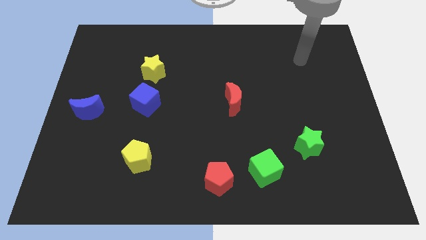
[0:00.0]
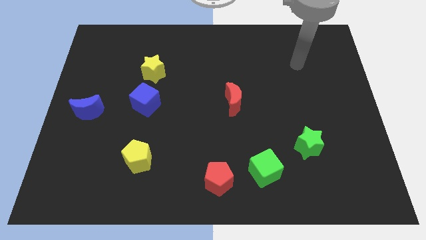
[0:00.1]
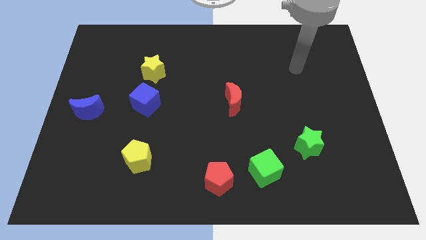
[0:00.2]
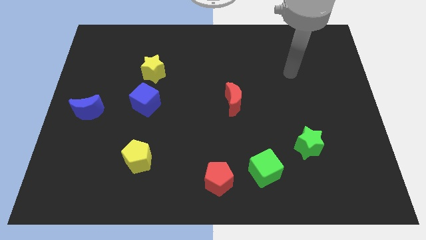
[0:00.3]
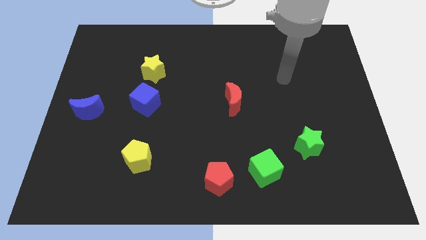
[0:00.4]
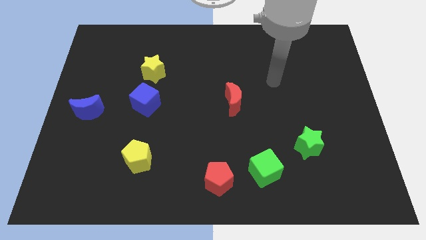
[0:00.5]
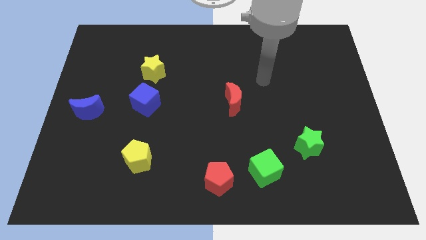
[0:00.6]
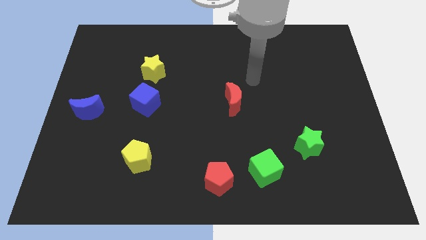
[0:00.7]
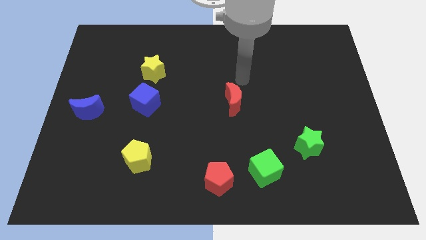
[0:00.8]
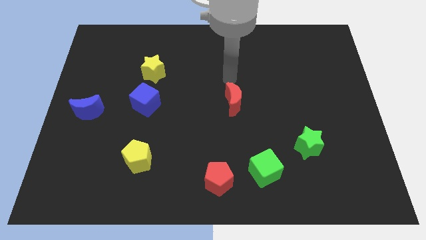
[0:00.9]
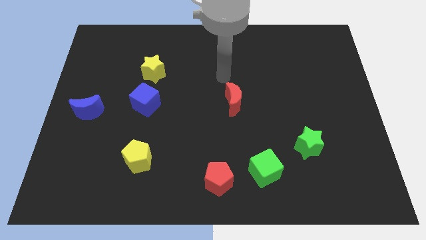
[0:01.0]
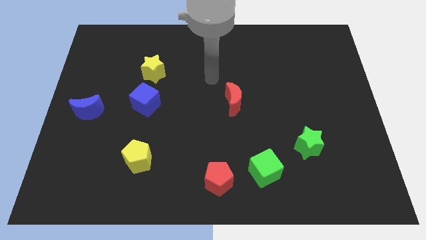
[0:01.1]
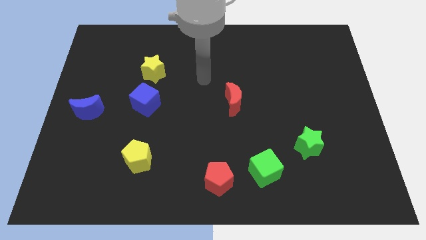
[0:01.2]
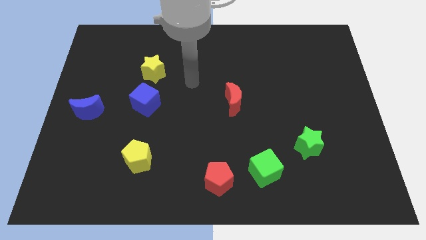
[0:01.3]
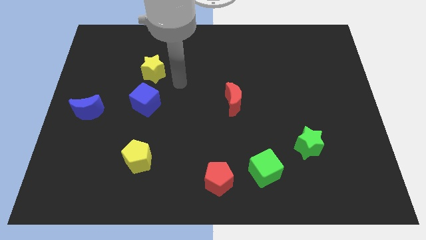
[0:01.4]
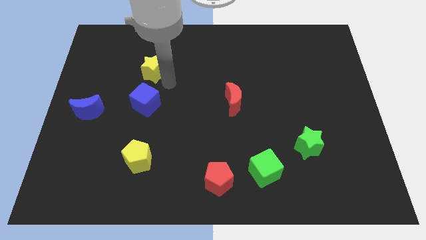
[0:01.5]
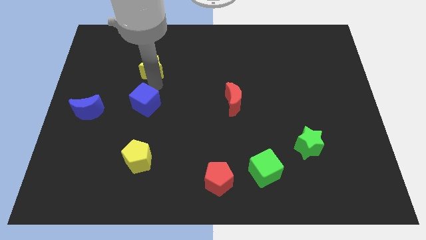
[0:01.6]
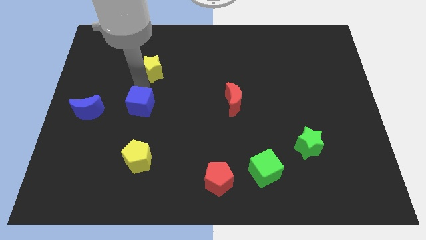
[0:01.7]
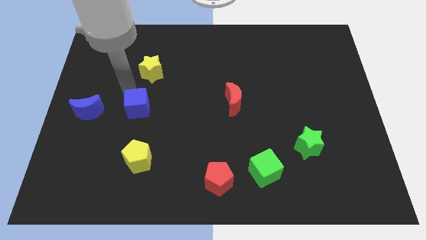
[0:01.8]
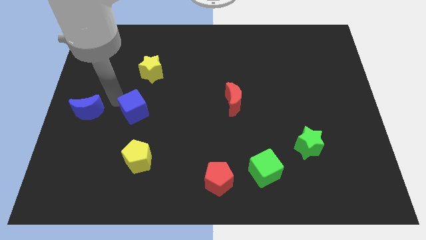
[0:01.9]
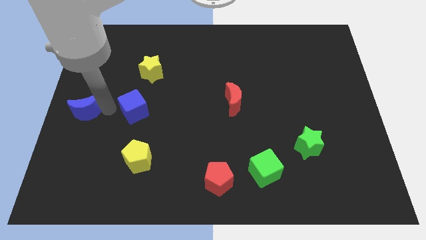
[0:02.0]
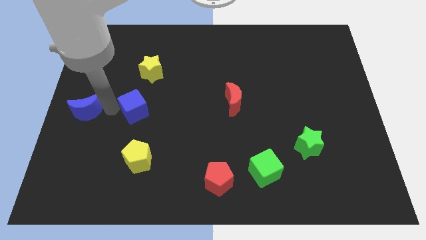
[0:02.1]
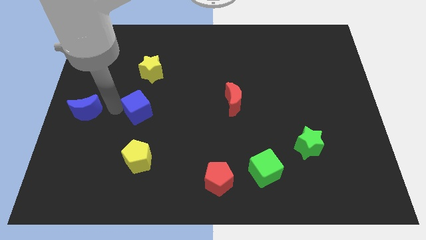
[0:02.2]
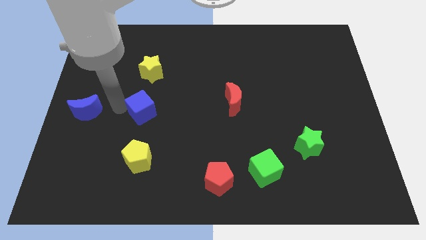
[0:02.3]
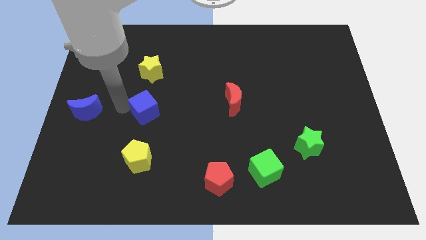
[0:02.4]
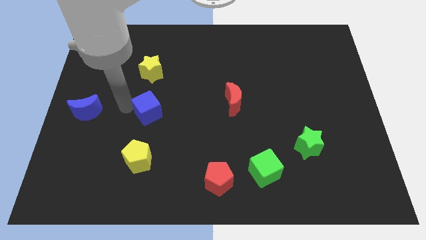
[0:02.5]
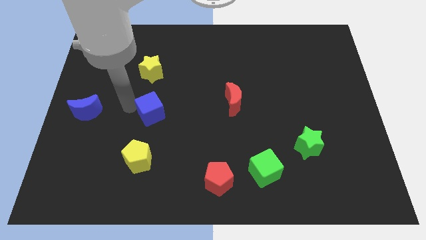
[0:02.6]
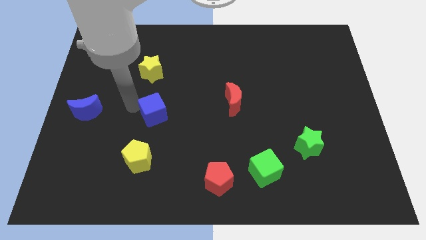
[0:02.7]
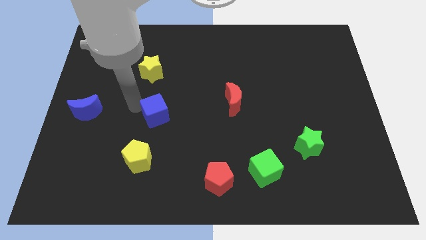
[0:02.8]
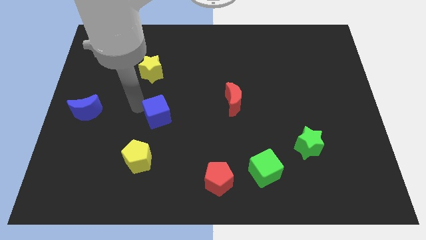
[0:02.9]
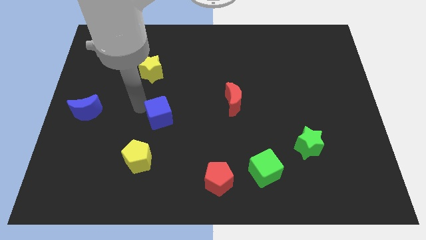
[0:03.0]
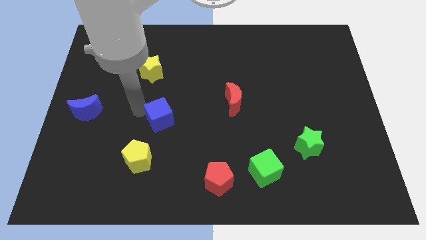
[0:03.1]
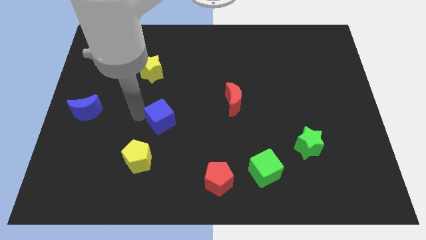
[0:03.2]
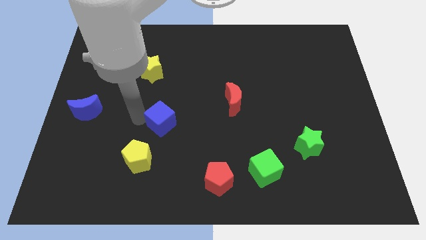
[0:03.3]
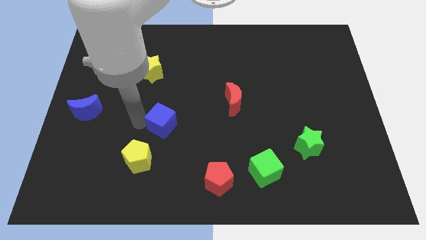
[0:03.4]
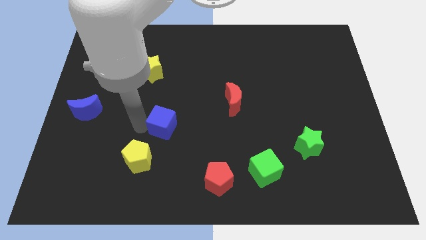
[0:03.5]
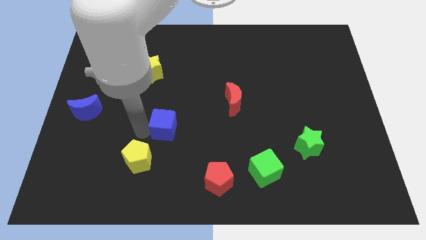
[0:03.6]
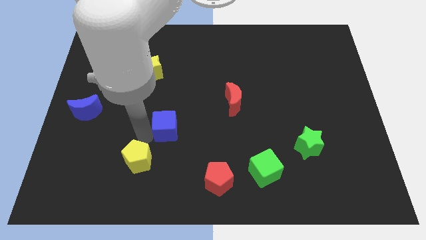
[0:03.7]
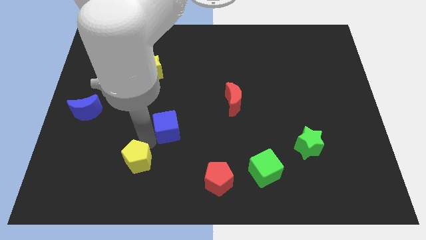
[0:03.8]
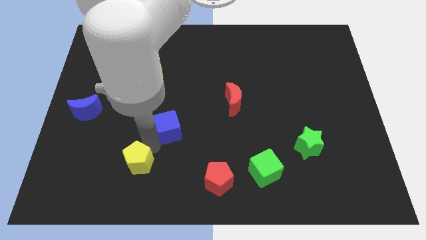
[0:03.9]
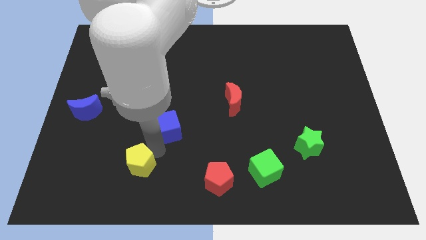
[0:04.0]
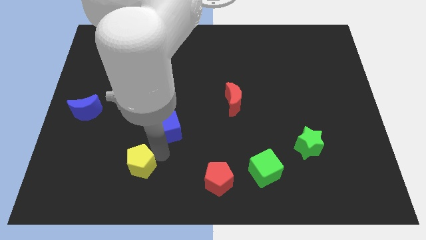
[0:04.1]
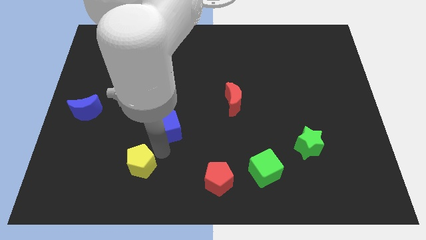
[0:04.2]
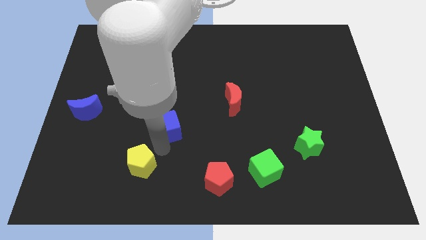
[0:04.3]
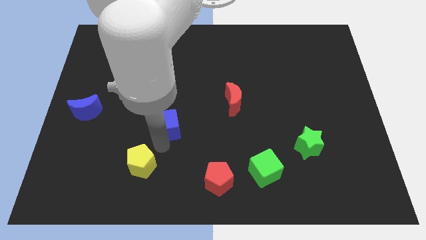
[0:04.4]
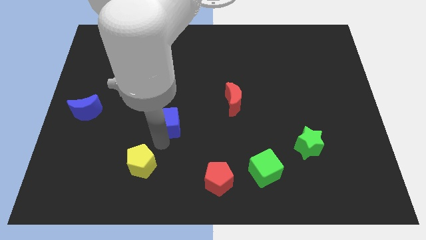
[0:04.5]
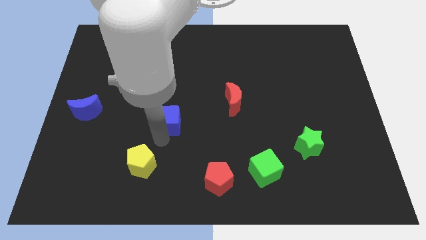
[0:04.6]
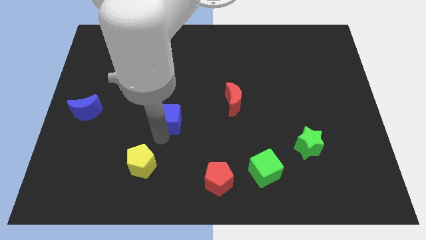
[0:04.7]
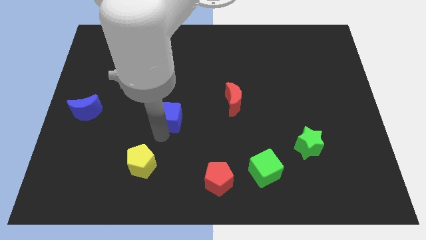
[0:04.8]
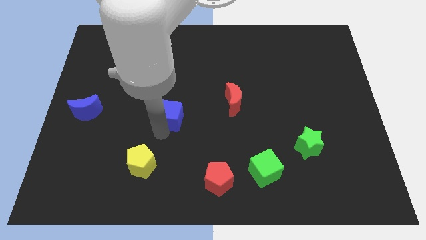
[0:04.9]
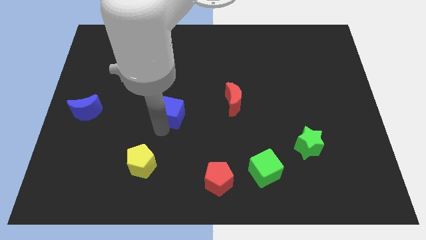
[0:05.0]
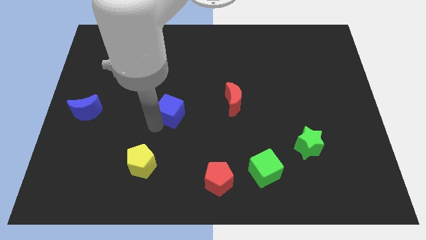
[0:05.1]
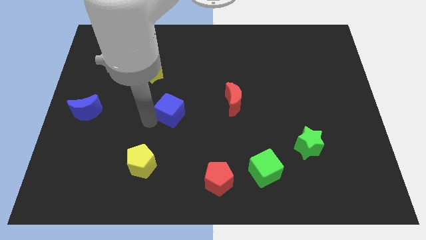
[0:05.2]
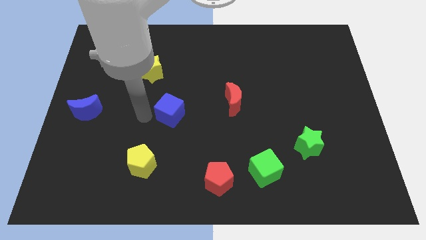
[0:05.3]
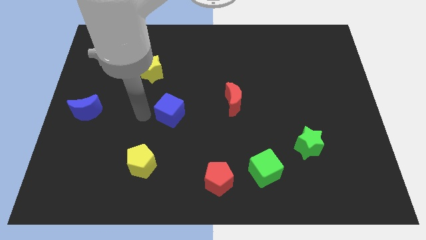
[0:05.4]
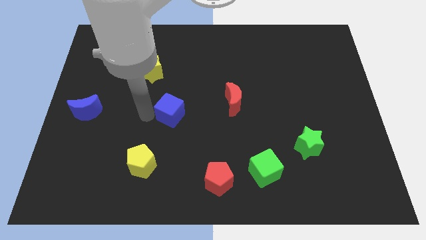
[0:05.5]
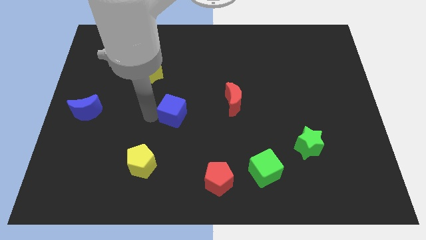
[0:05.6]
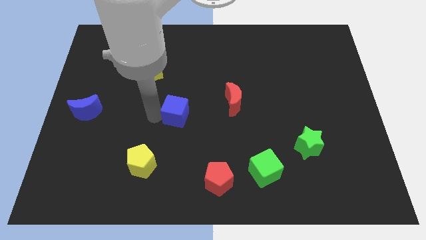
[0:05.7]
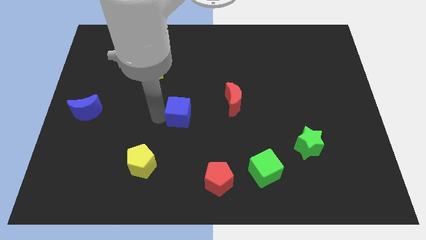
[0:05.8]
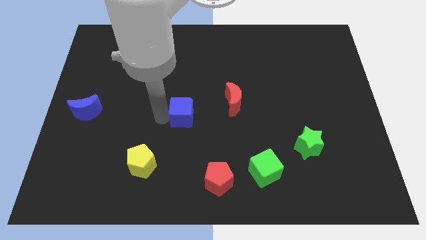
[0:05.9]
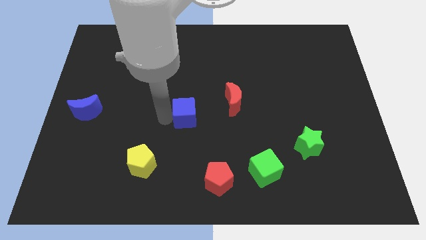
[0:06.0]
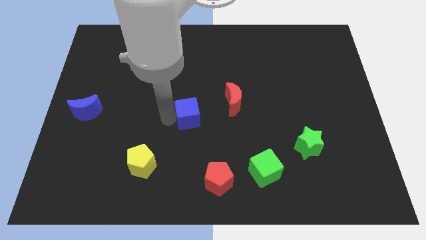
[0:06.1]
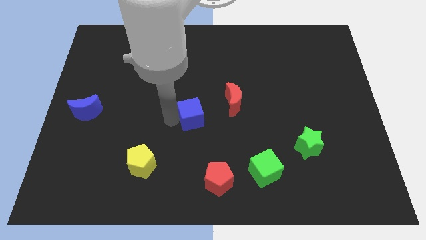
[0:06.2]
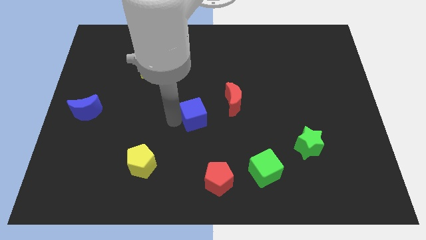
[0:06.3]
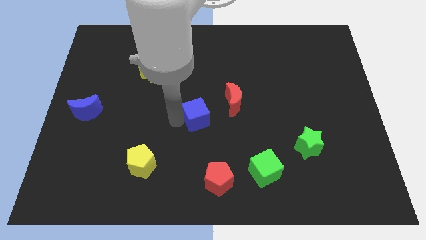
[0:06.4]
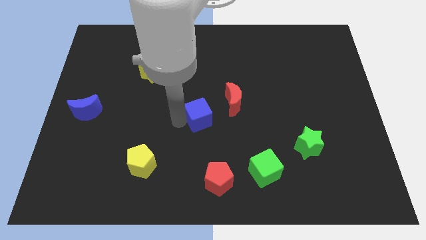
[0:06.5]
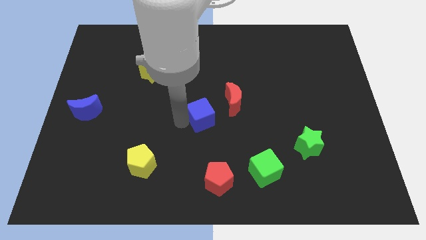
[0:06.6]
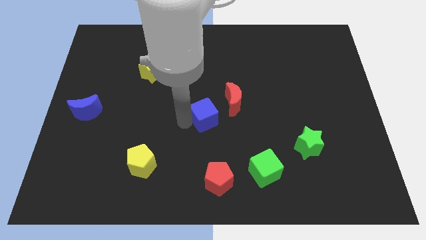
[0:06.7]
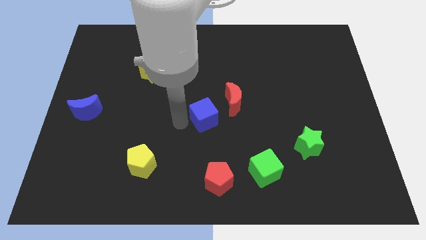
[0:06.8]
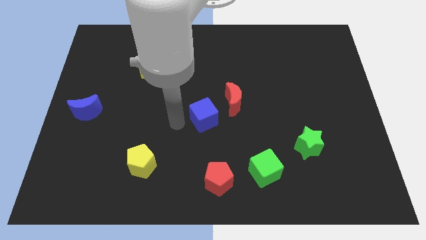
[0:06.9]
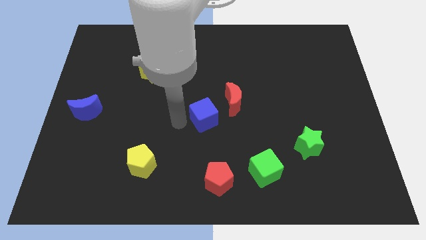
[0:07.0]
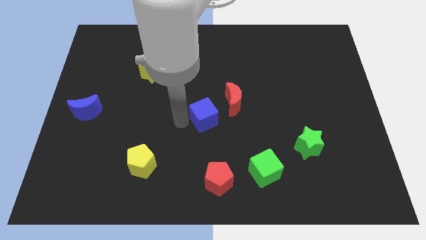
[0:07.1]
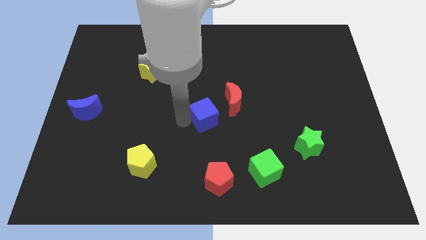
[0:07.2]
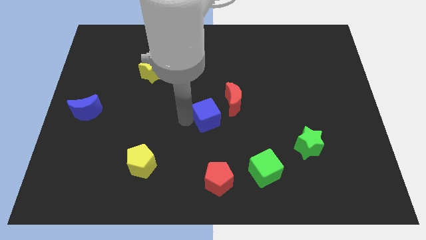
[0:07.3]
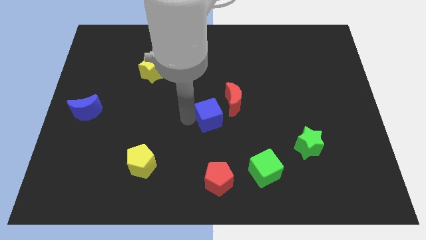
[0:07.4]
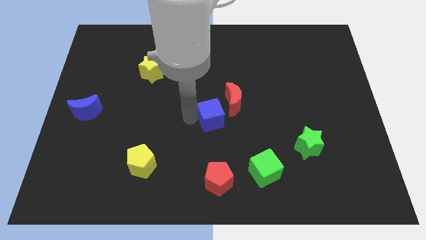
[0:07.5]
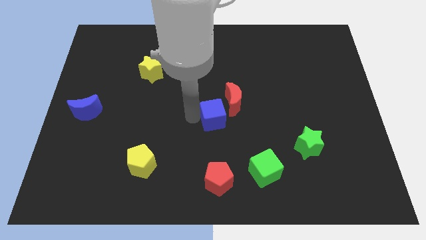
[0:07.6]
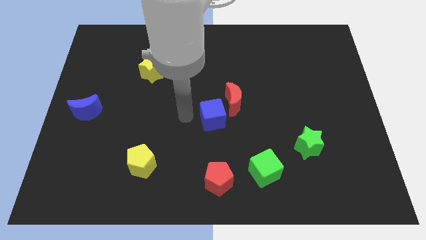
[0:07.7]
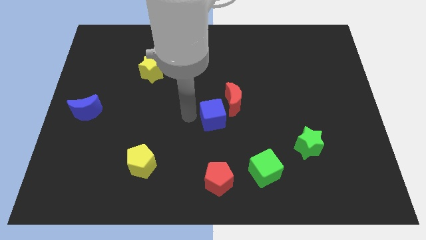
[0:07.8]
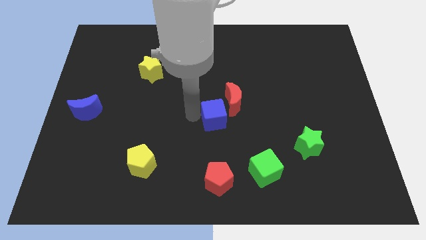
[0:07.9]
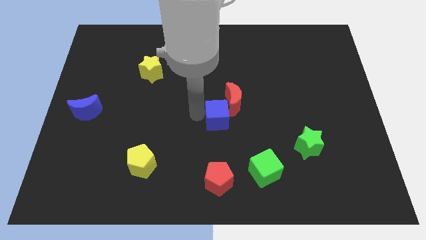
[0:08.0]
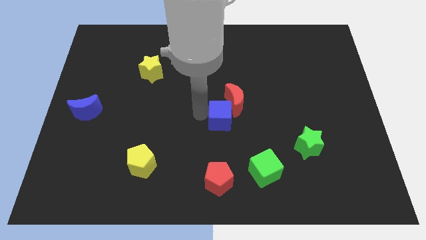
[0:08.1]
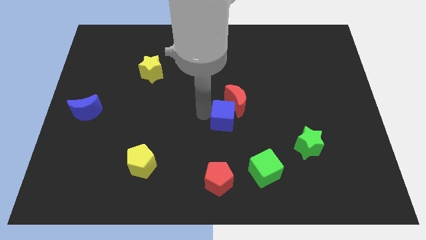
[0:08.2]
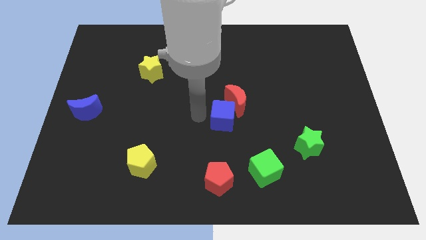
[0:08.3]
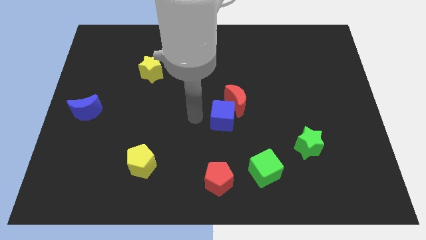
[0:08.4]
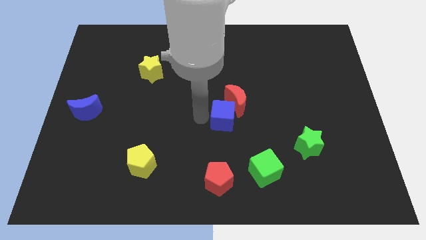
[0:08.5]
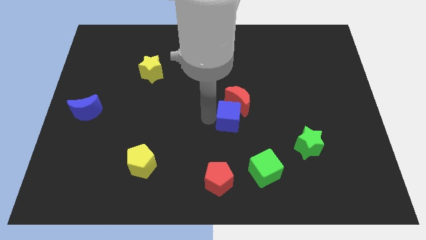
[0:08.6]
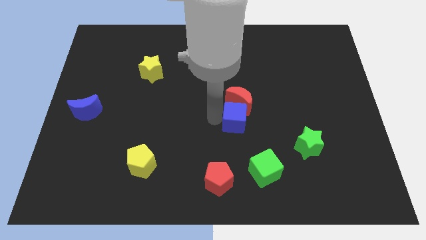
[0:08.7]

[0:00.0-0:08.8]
move the blue cube right
